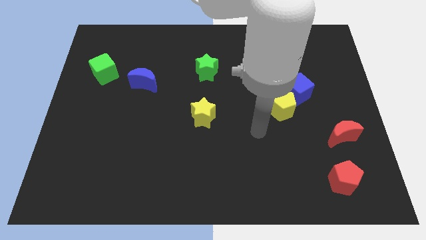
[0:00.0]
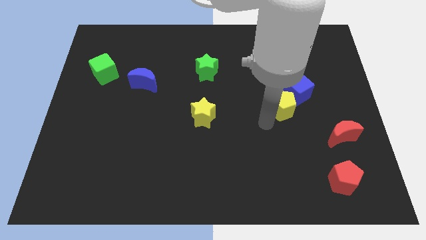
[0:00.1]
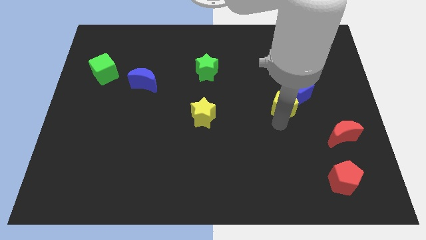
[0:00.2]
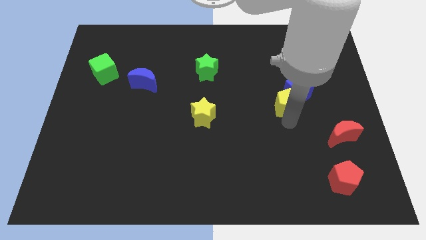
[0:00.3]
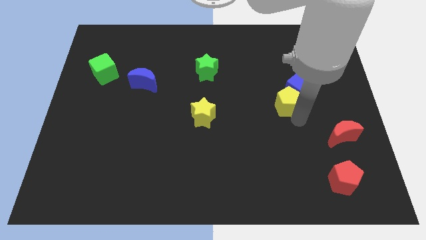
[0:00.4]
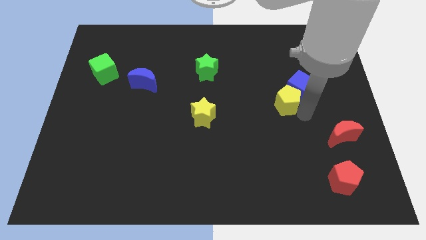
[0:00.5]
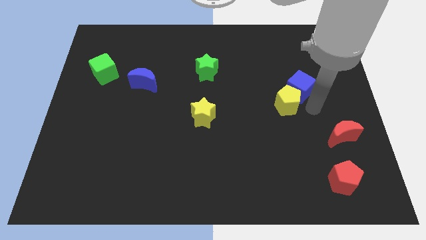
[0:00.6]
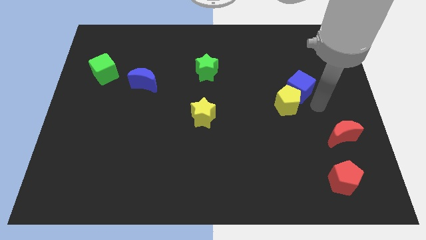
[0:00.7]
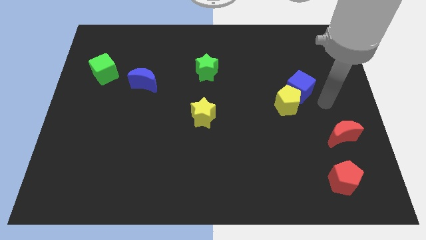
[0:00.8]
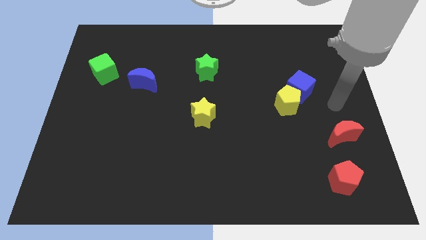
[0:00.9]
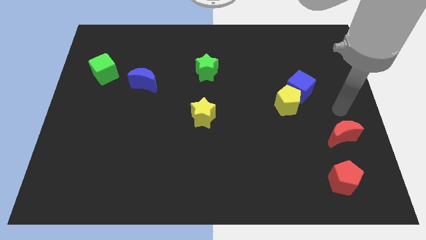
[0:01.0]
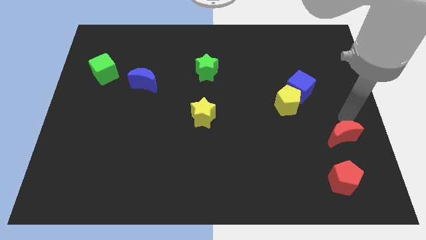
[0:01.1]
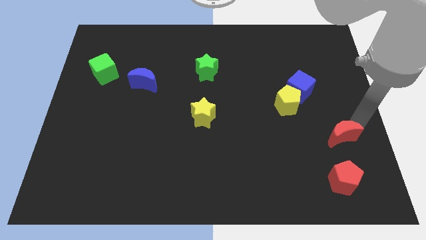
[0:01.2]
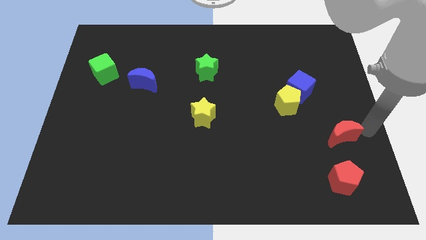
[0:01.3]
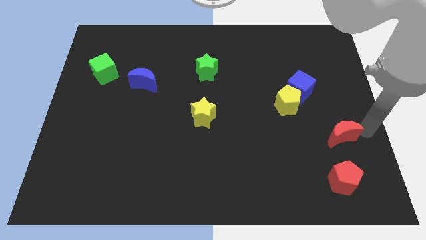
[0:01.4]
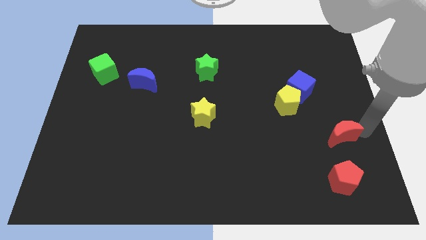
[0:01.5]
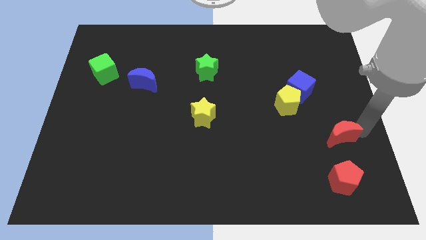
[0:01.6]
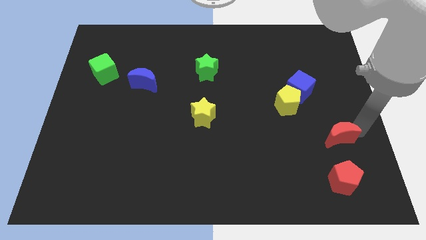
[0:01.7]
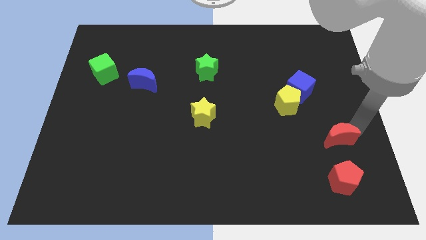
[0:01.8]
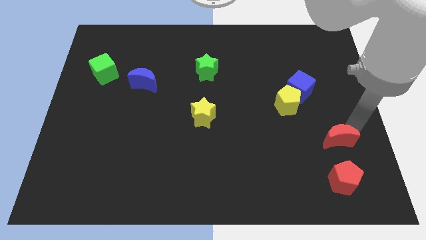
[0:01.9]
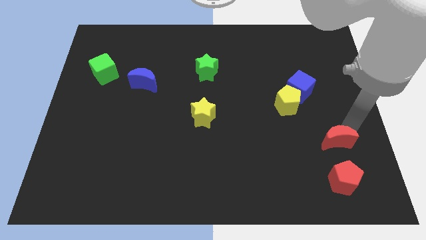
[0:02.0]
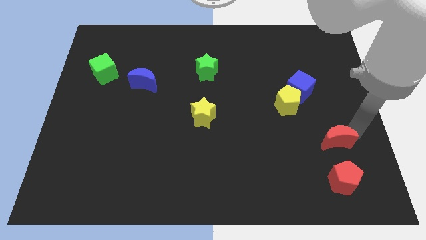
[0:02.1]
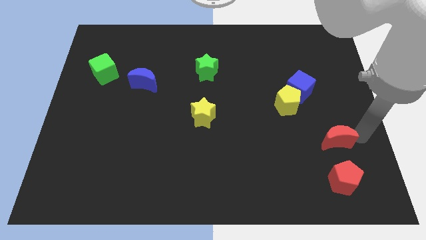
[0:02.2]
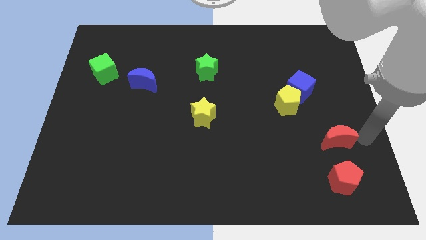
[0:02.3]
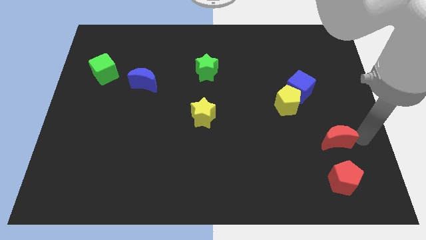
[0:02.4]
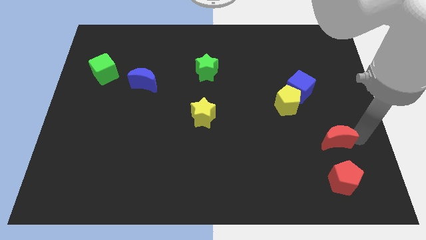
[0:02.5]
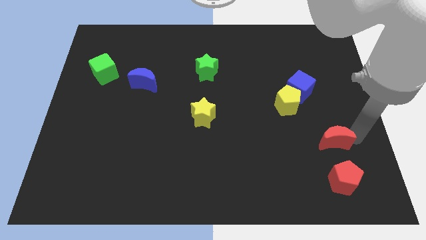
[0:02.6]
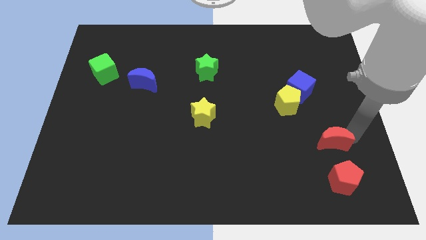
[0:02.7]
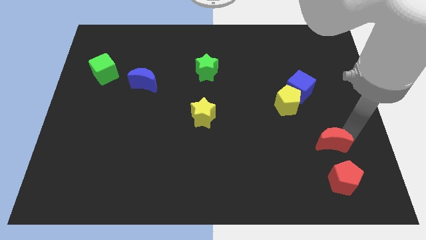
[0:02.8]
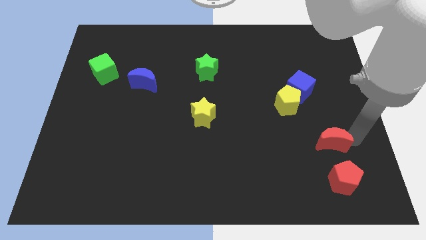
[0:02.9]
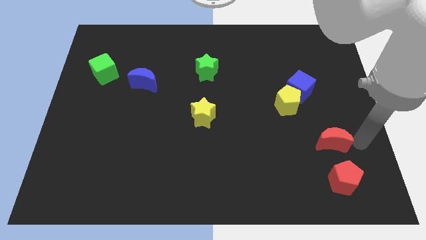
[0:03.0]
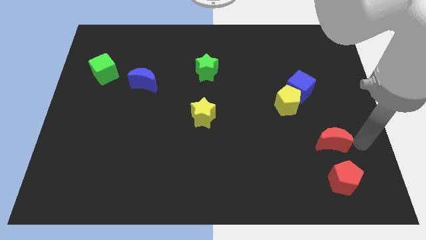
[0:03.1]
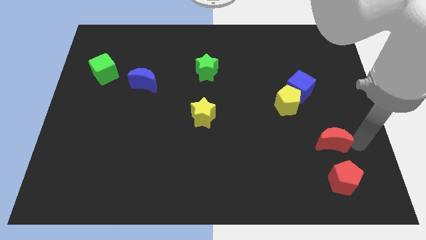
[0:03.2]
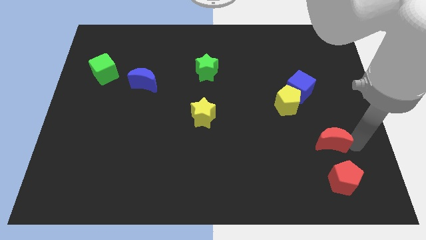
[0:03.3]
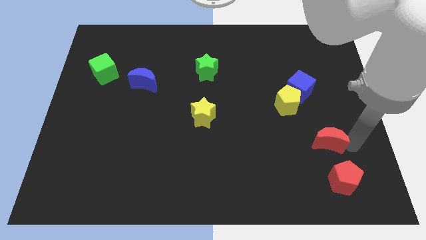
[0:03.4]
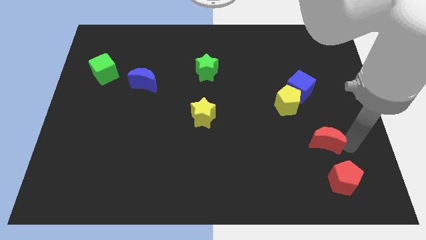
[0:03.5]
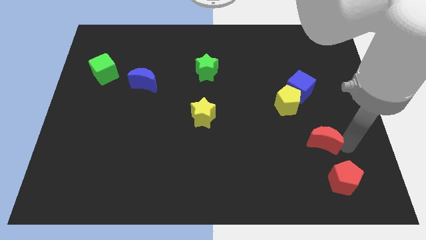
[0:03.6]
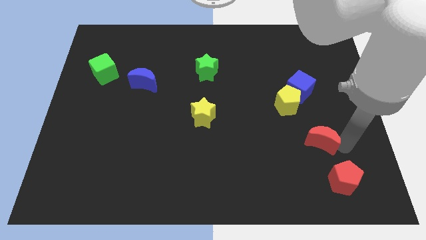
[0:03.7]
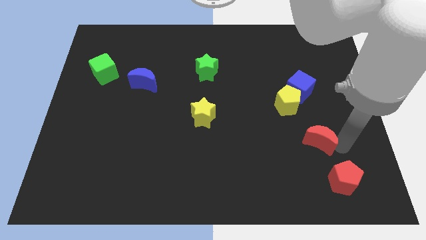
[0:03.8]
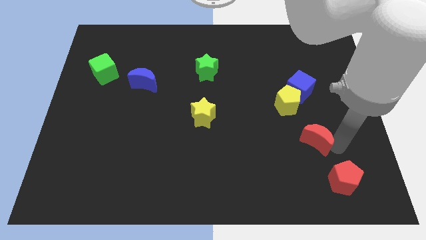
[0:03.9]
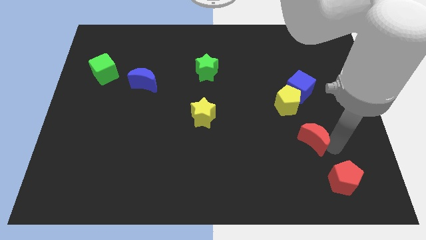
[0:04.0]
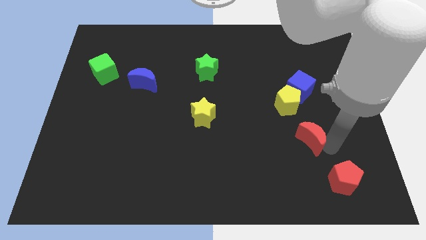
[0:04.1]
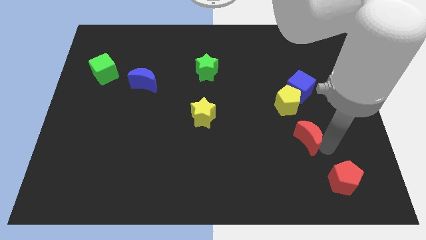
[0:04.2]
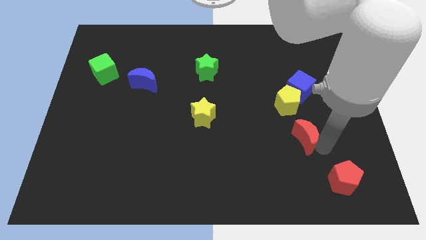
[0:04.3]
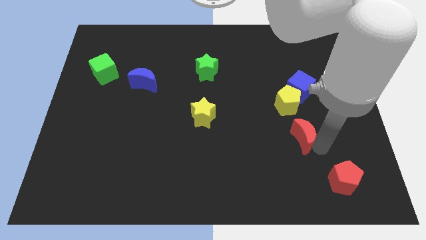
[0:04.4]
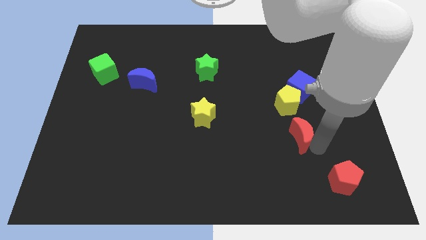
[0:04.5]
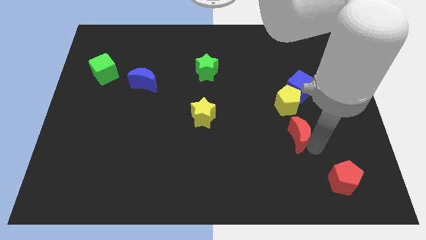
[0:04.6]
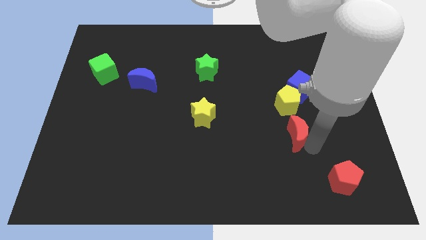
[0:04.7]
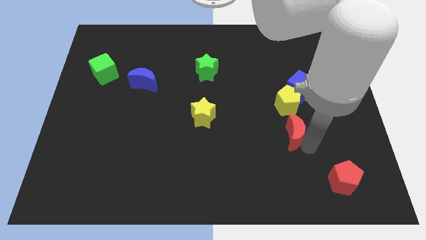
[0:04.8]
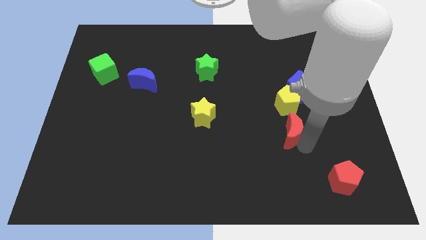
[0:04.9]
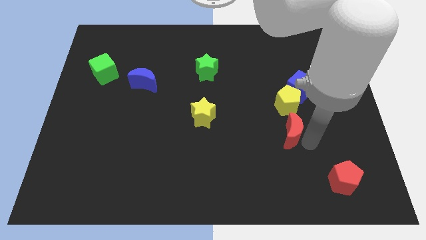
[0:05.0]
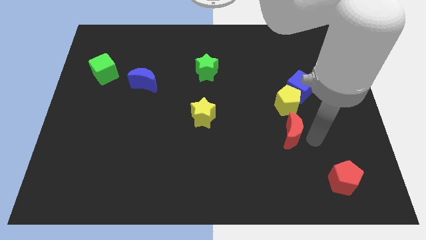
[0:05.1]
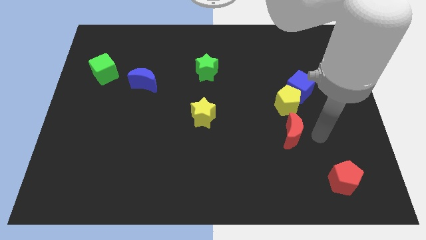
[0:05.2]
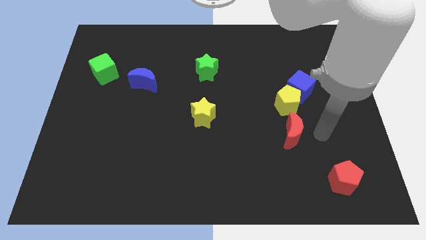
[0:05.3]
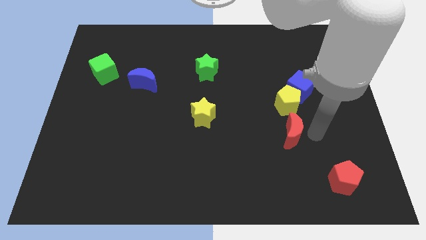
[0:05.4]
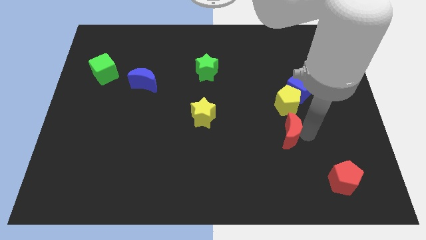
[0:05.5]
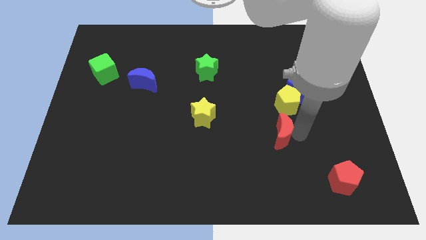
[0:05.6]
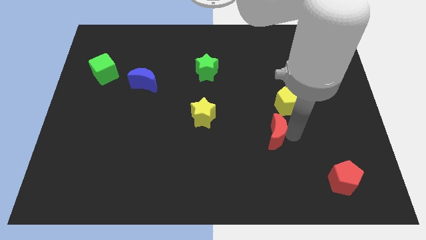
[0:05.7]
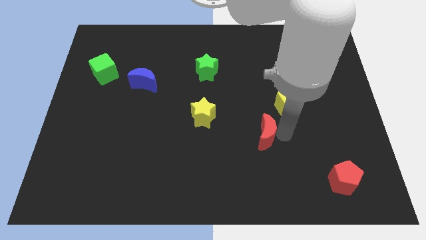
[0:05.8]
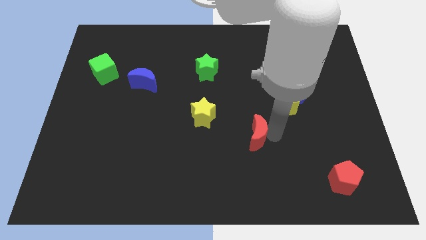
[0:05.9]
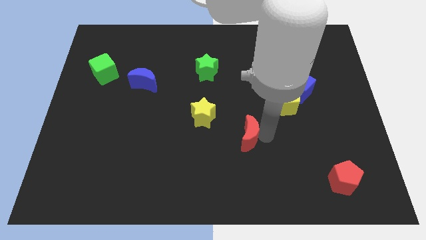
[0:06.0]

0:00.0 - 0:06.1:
push the red moon diagonally down and to the right of the yellow star

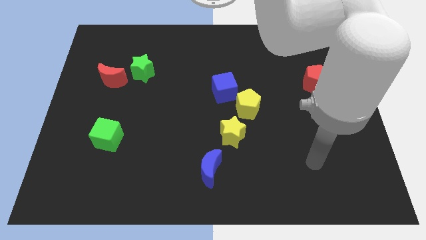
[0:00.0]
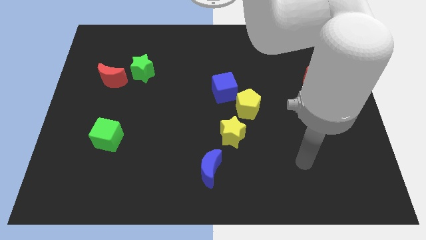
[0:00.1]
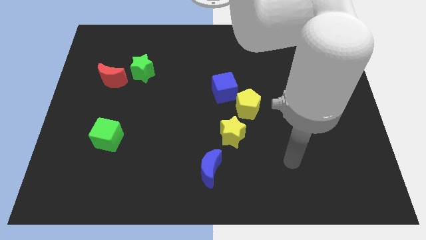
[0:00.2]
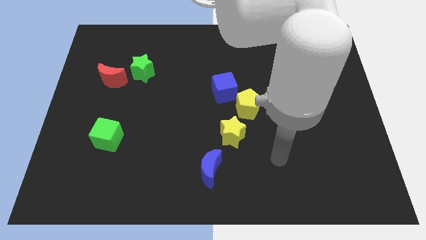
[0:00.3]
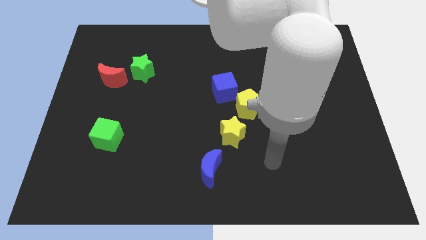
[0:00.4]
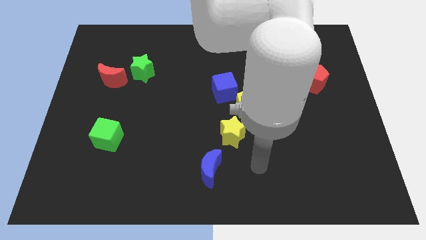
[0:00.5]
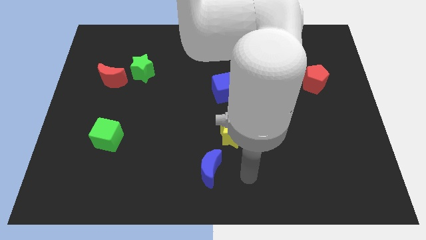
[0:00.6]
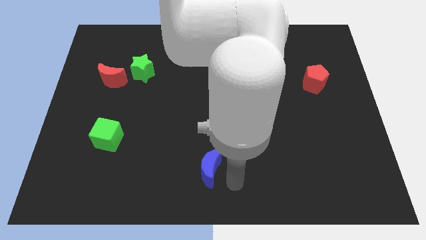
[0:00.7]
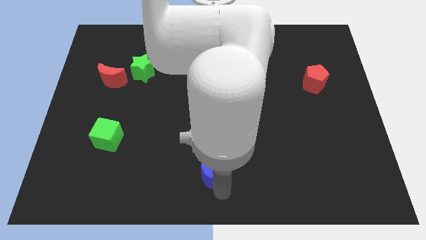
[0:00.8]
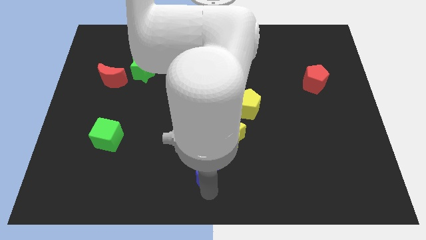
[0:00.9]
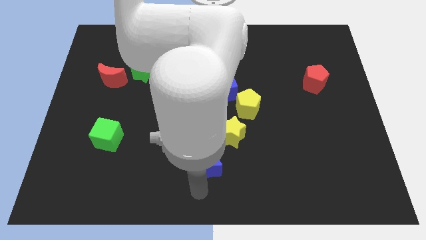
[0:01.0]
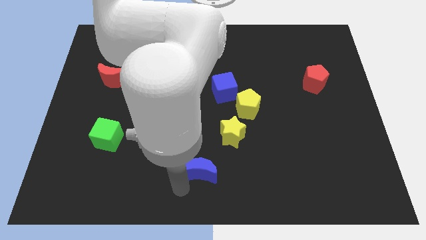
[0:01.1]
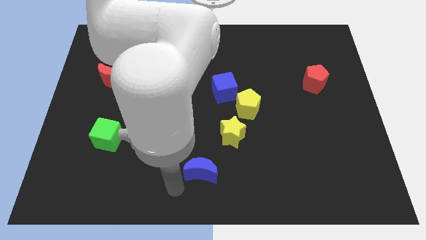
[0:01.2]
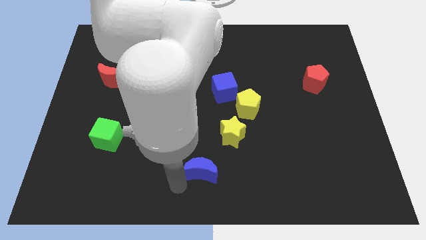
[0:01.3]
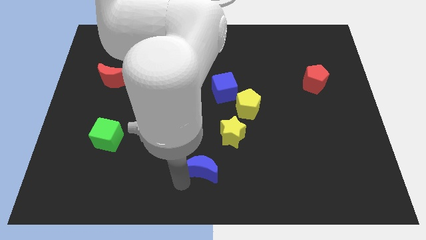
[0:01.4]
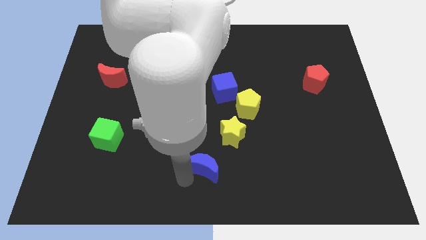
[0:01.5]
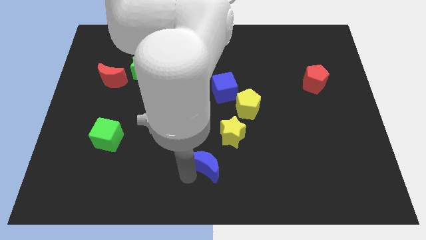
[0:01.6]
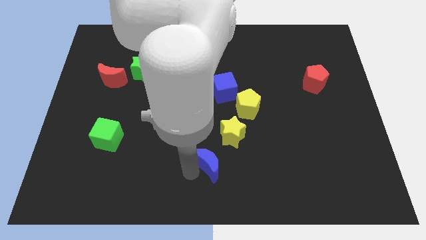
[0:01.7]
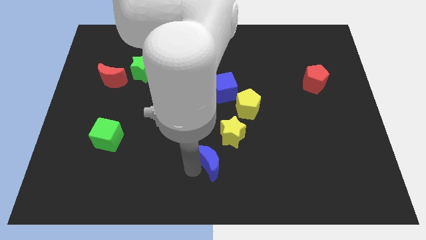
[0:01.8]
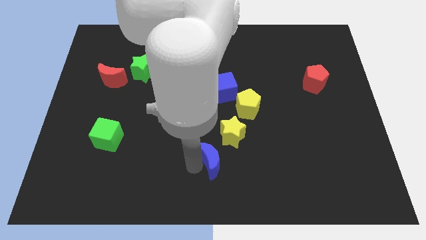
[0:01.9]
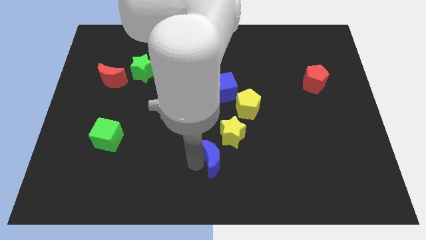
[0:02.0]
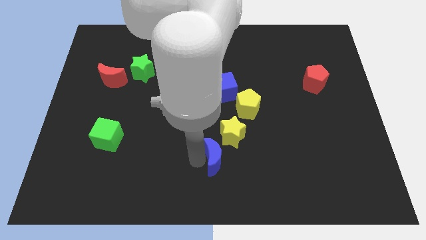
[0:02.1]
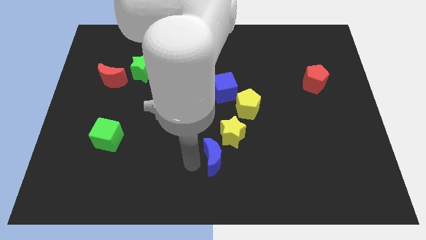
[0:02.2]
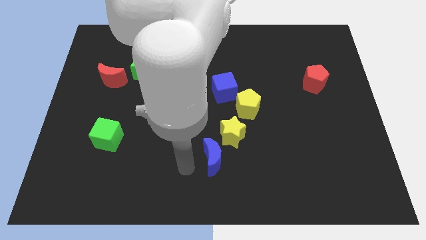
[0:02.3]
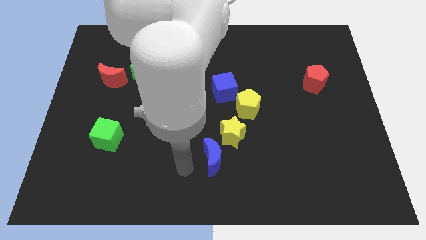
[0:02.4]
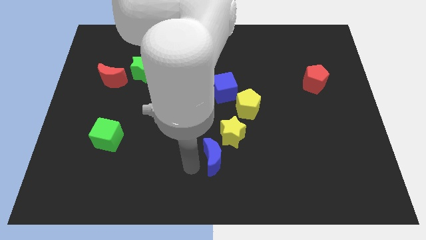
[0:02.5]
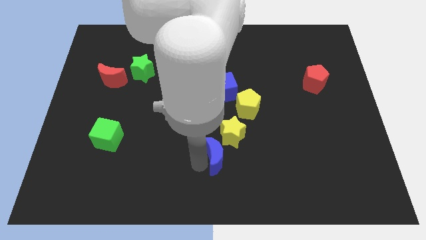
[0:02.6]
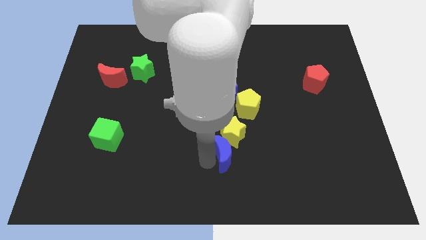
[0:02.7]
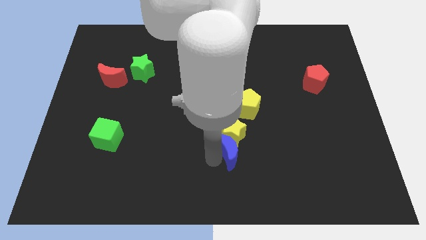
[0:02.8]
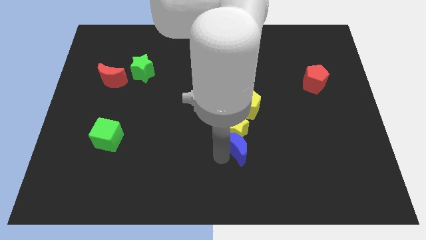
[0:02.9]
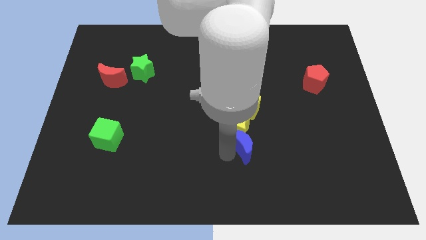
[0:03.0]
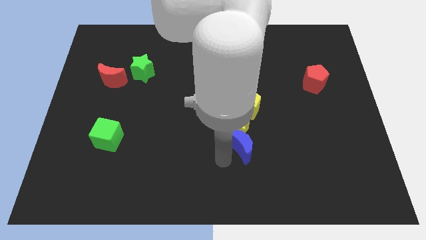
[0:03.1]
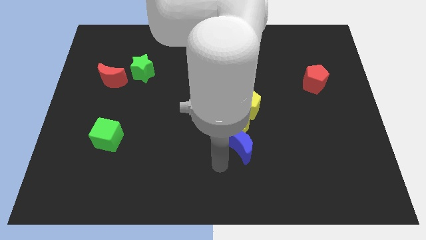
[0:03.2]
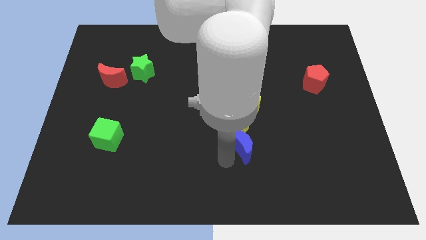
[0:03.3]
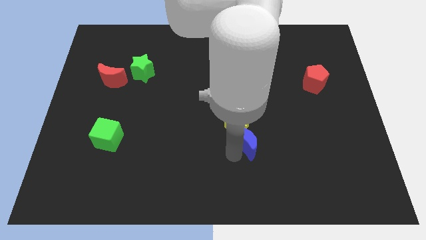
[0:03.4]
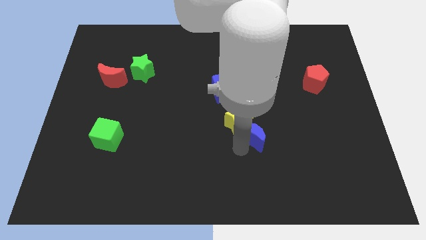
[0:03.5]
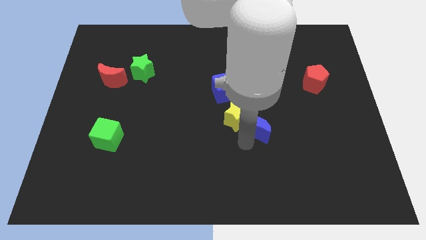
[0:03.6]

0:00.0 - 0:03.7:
put the blue moon to the bottom right of the yellow pentagon
